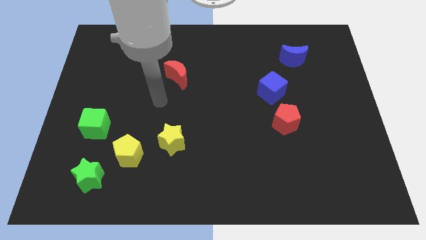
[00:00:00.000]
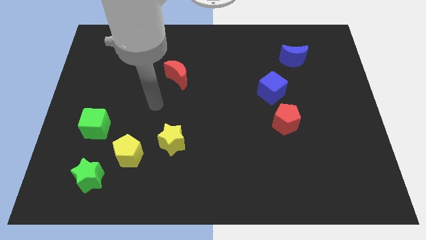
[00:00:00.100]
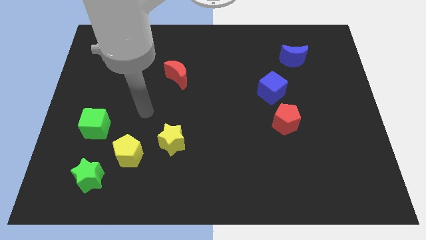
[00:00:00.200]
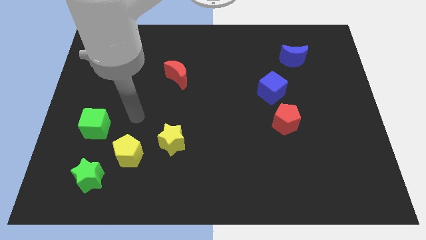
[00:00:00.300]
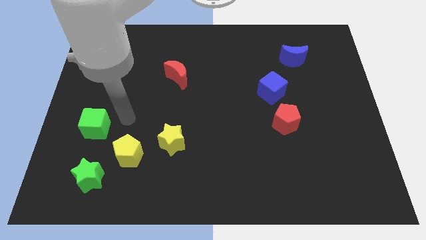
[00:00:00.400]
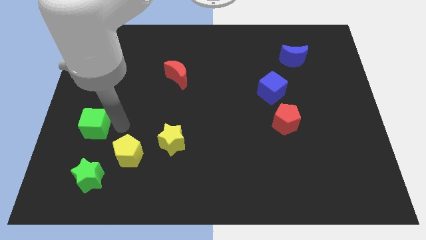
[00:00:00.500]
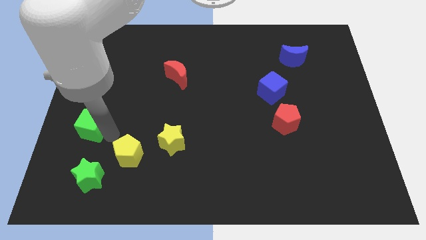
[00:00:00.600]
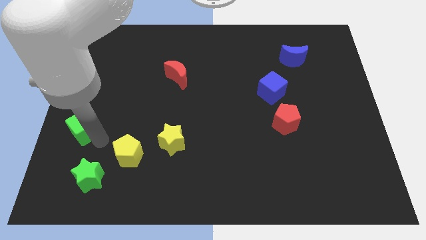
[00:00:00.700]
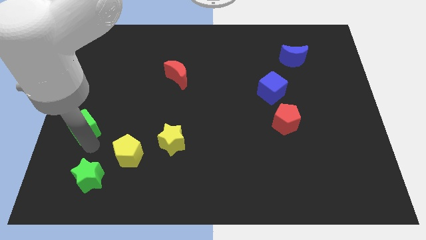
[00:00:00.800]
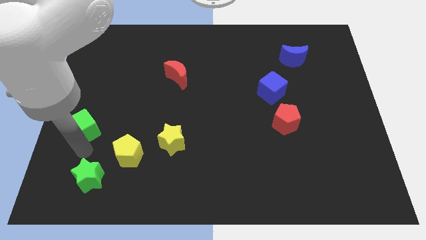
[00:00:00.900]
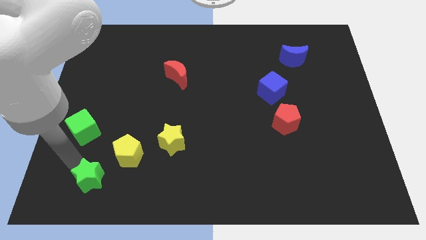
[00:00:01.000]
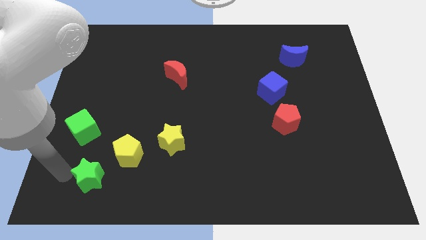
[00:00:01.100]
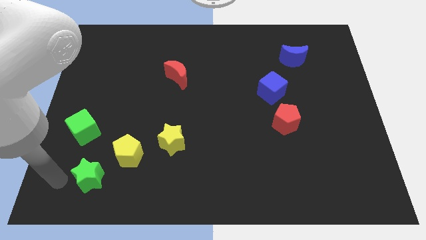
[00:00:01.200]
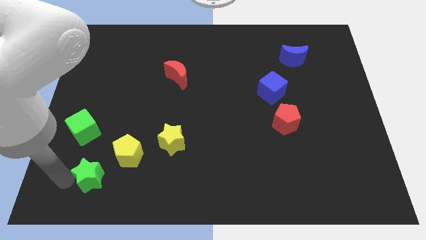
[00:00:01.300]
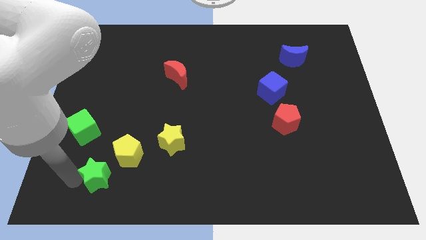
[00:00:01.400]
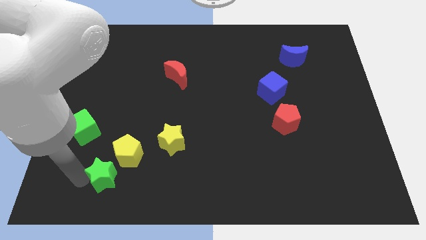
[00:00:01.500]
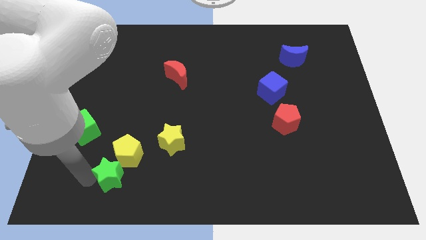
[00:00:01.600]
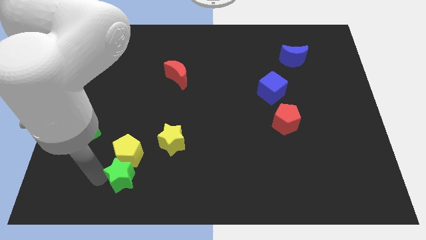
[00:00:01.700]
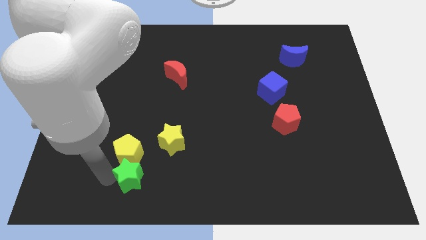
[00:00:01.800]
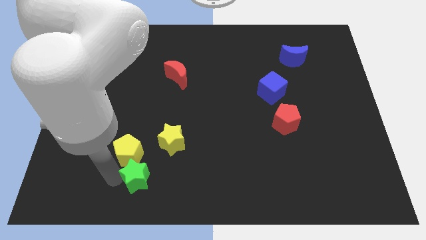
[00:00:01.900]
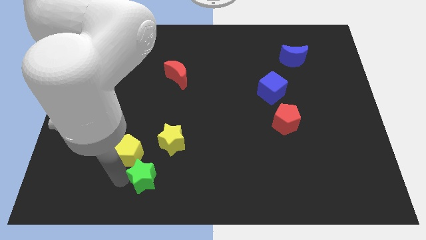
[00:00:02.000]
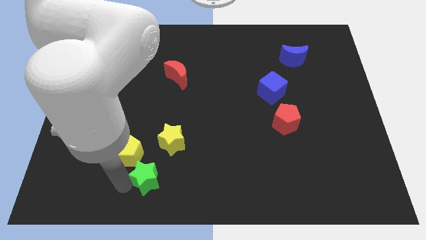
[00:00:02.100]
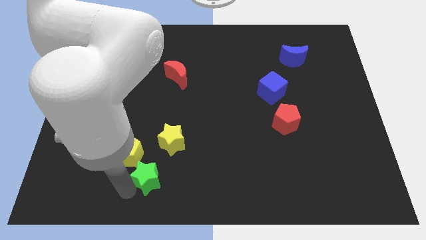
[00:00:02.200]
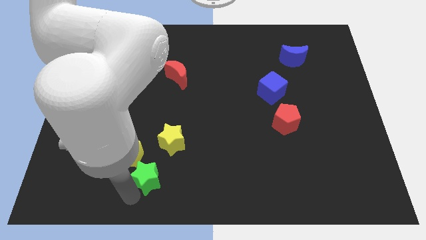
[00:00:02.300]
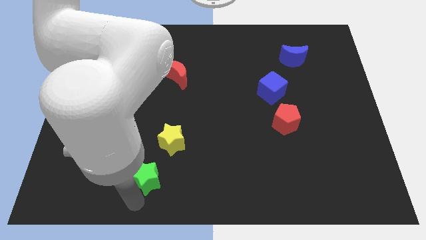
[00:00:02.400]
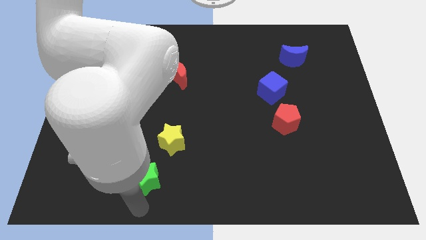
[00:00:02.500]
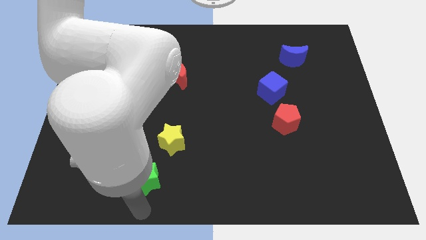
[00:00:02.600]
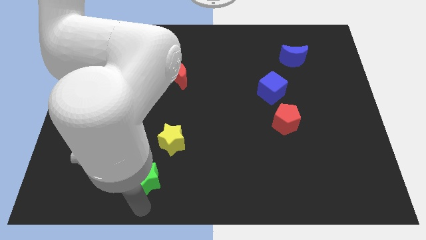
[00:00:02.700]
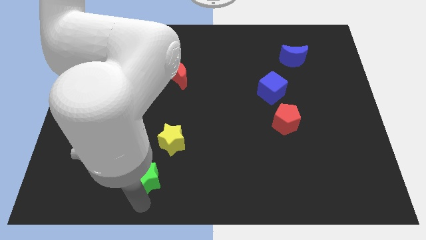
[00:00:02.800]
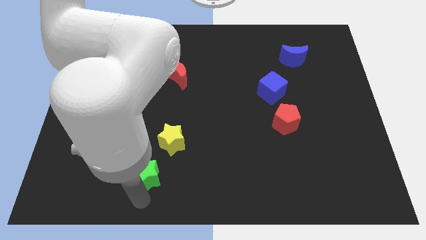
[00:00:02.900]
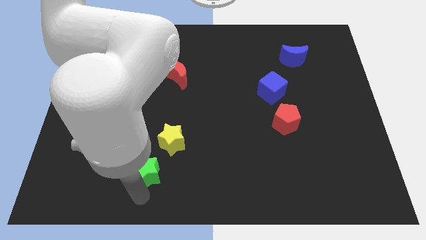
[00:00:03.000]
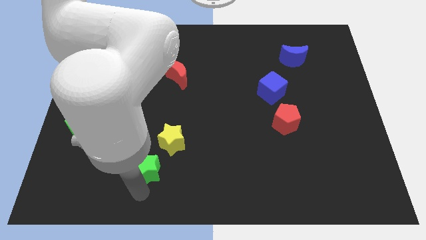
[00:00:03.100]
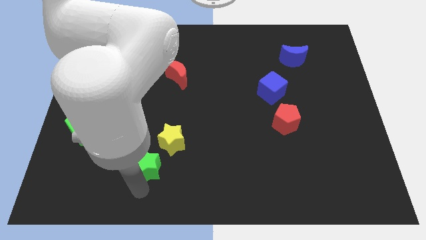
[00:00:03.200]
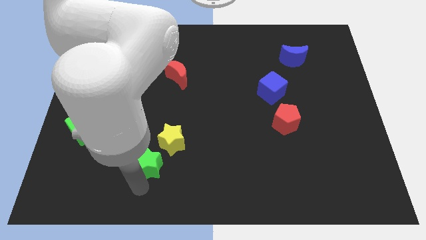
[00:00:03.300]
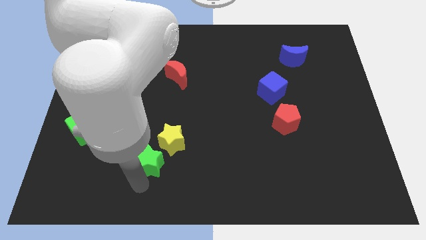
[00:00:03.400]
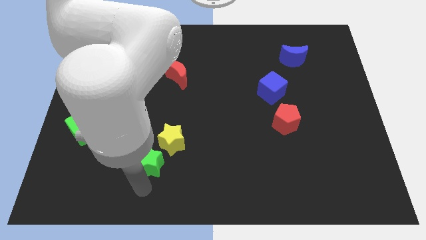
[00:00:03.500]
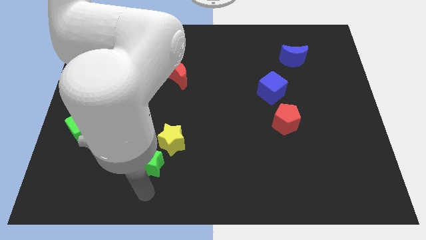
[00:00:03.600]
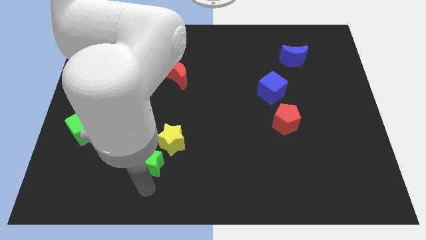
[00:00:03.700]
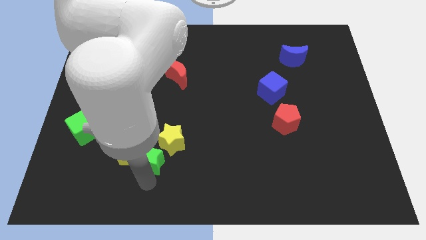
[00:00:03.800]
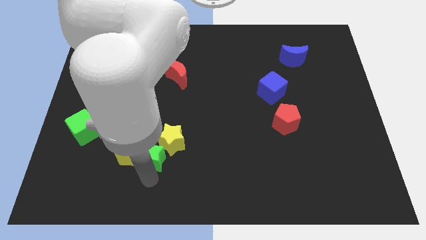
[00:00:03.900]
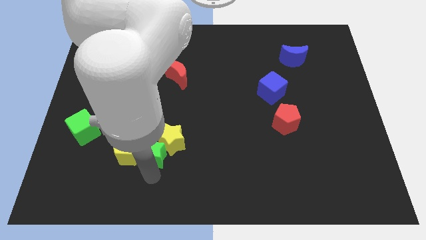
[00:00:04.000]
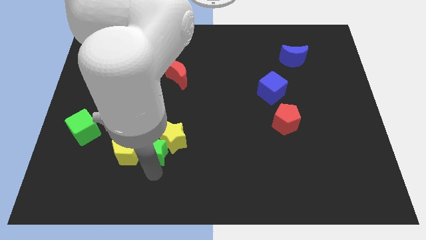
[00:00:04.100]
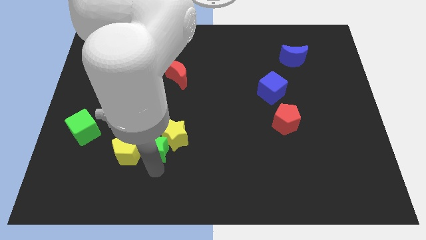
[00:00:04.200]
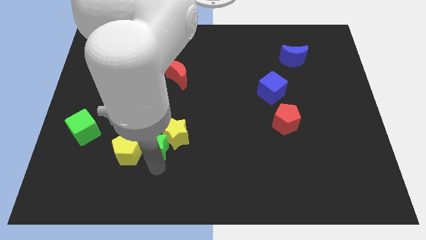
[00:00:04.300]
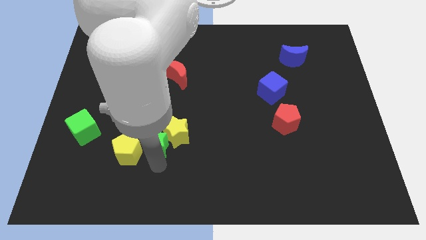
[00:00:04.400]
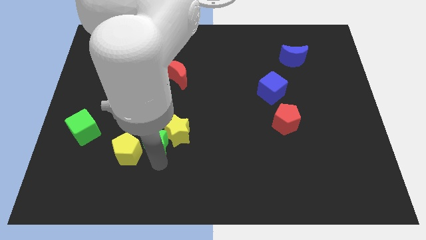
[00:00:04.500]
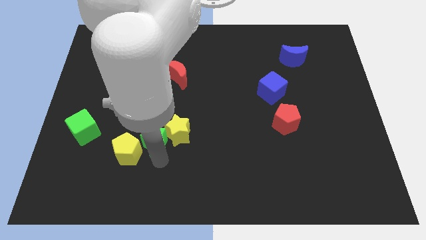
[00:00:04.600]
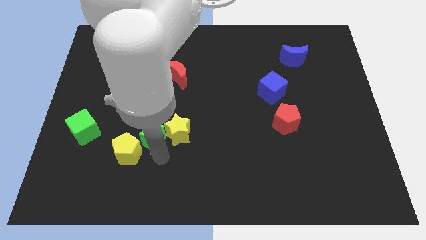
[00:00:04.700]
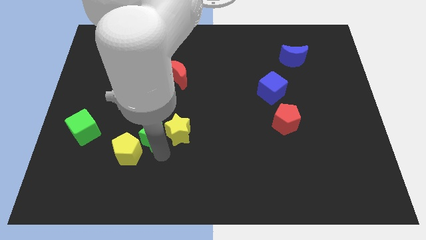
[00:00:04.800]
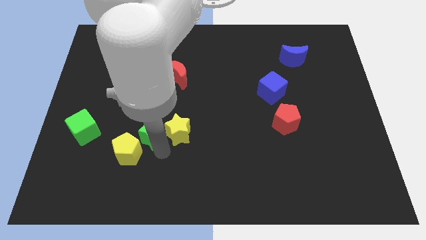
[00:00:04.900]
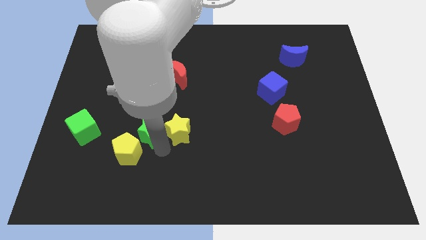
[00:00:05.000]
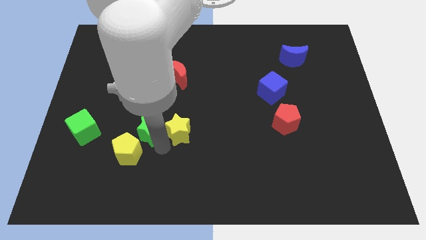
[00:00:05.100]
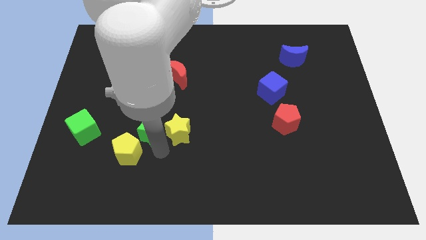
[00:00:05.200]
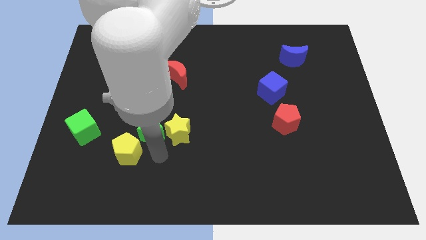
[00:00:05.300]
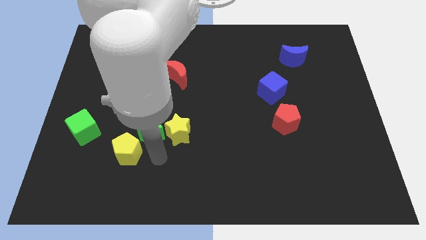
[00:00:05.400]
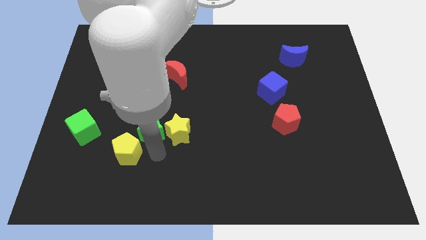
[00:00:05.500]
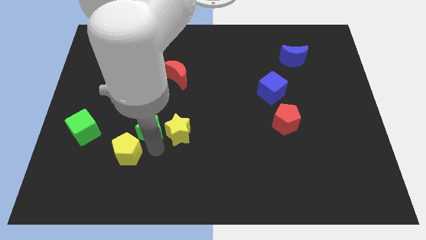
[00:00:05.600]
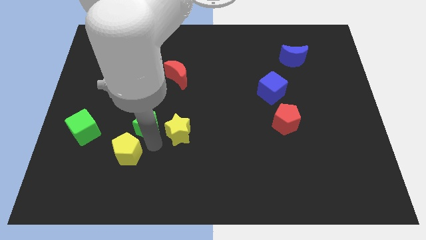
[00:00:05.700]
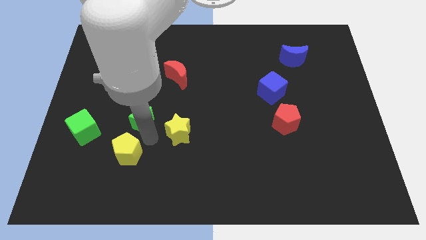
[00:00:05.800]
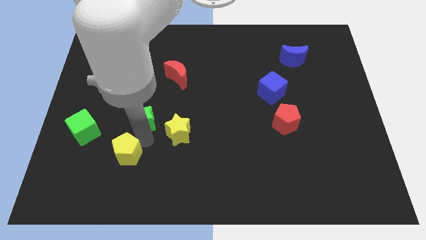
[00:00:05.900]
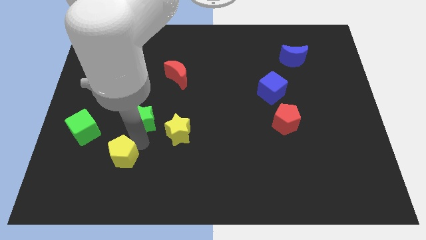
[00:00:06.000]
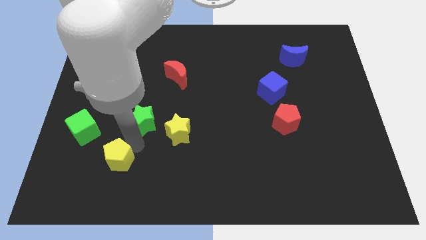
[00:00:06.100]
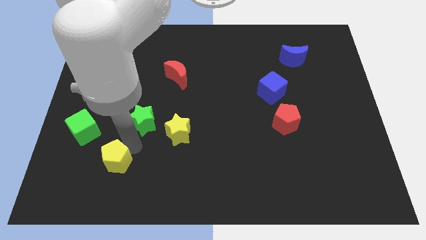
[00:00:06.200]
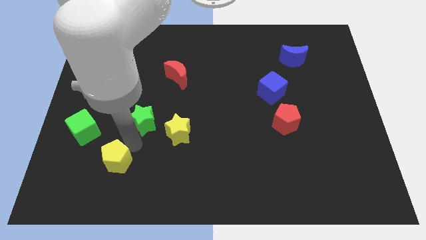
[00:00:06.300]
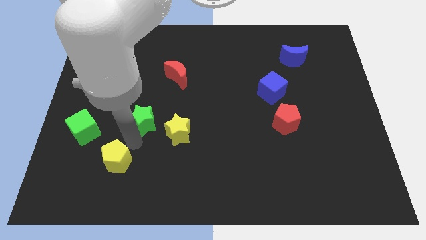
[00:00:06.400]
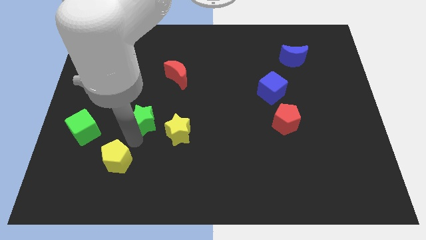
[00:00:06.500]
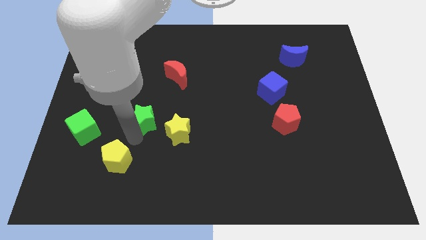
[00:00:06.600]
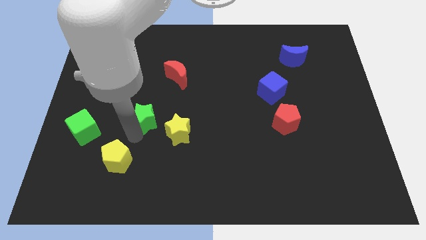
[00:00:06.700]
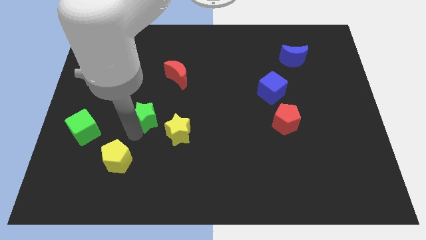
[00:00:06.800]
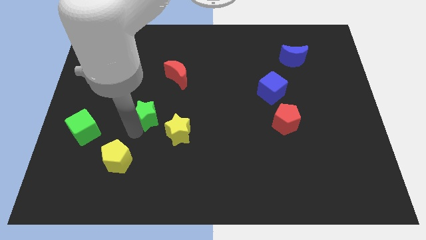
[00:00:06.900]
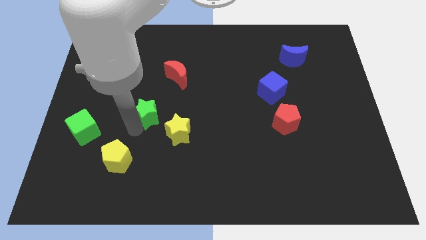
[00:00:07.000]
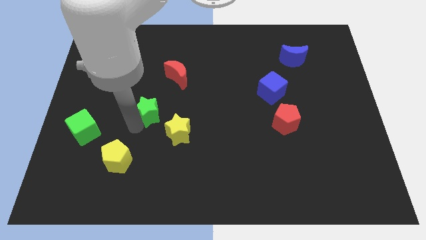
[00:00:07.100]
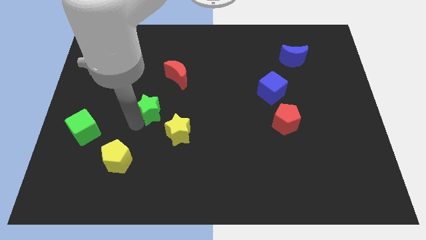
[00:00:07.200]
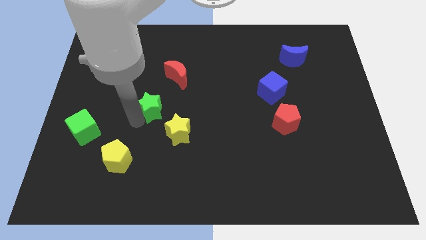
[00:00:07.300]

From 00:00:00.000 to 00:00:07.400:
push the green star diagonally down and to the left of the red moon

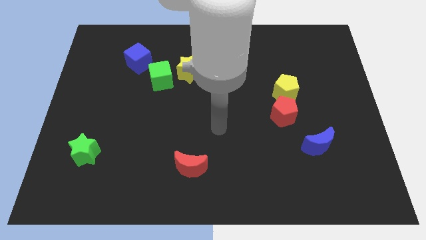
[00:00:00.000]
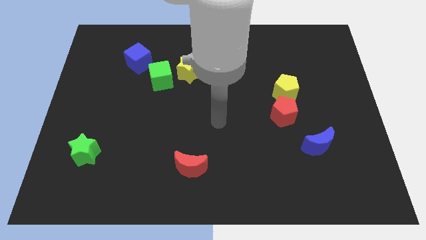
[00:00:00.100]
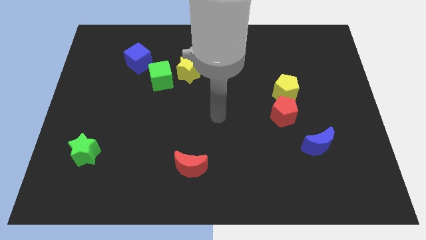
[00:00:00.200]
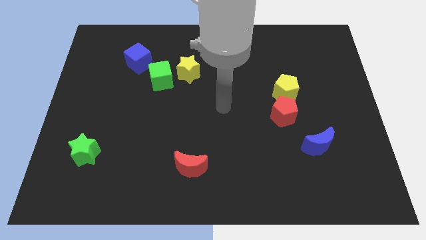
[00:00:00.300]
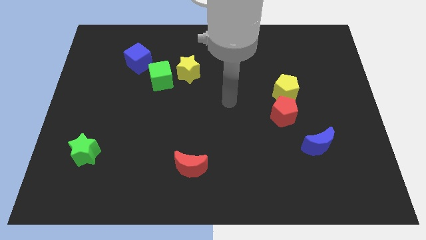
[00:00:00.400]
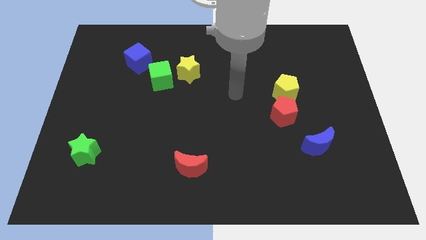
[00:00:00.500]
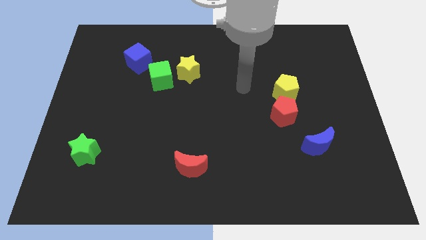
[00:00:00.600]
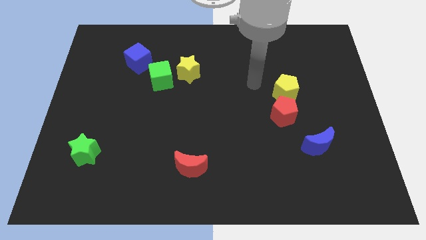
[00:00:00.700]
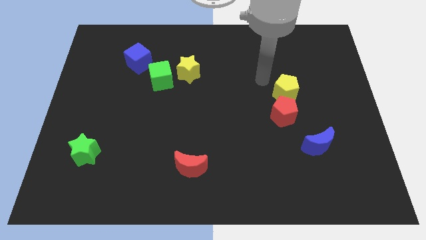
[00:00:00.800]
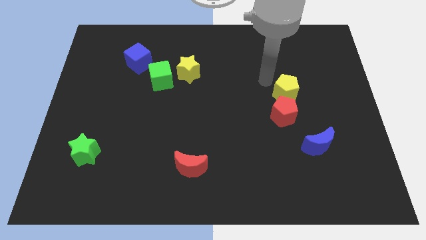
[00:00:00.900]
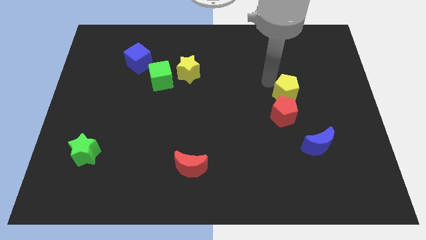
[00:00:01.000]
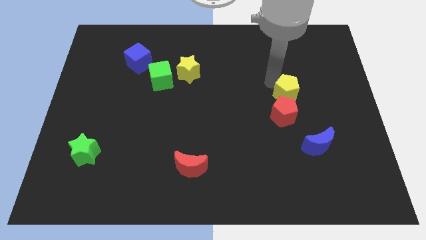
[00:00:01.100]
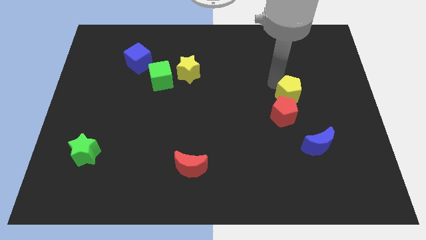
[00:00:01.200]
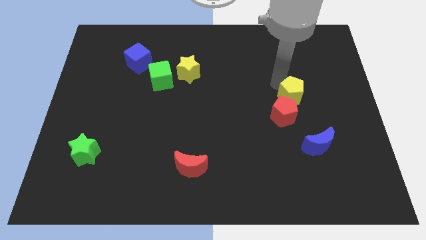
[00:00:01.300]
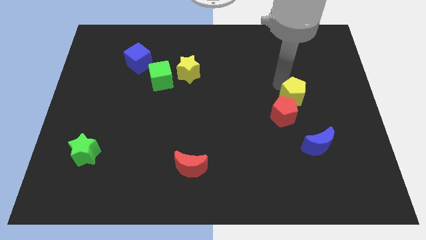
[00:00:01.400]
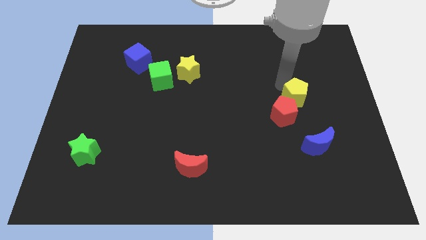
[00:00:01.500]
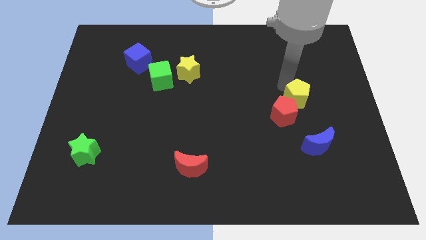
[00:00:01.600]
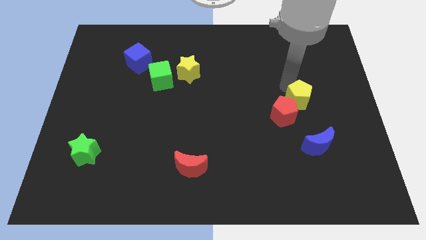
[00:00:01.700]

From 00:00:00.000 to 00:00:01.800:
push the yellow pentagon to the right of the red pentagon
